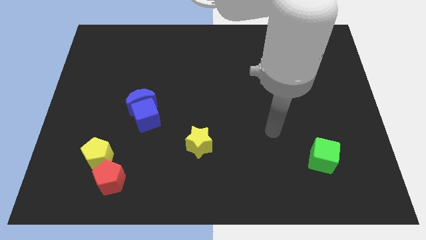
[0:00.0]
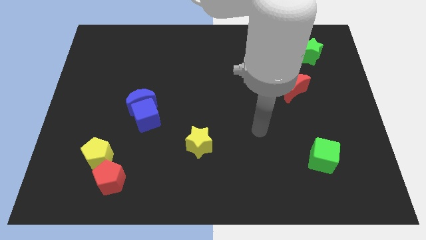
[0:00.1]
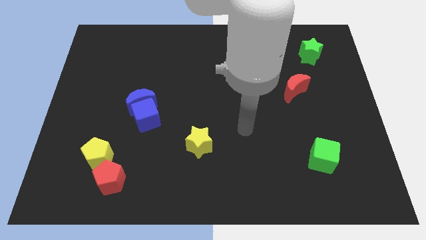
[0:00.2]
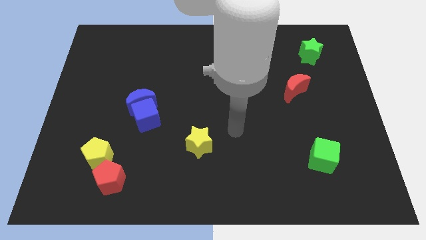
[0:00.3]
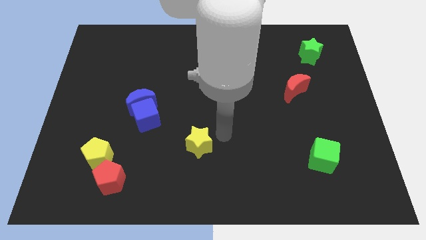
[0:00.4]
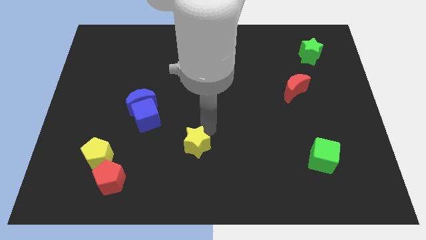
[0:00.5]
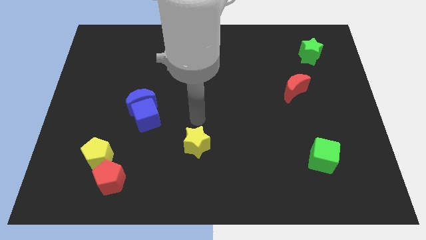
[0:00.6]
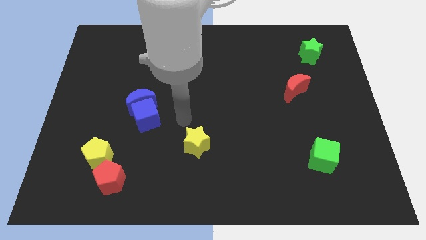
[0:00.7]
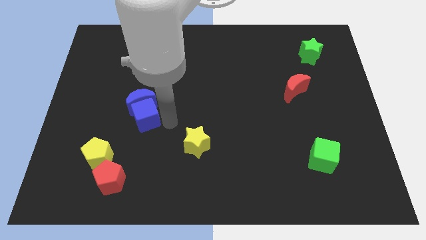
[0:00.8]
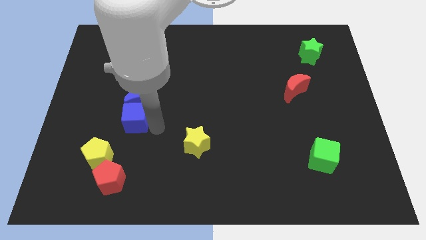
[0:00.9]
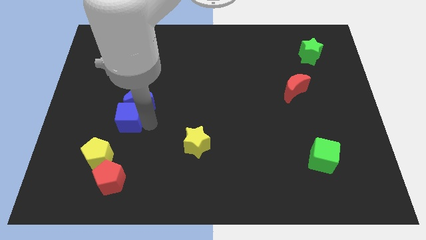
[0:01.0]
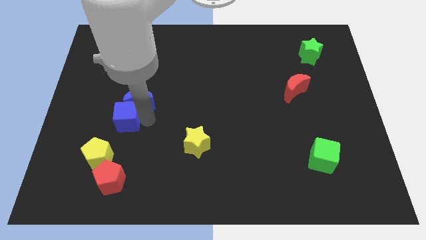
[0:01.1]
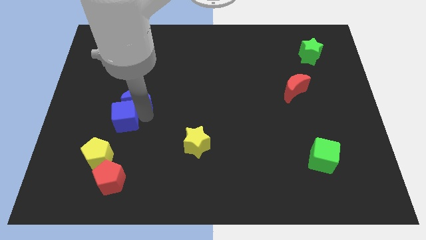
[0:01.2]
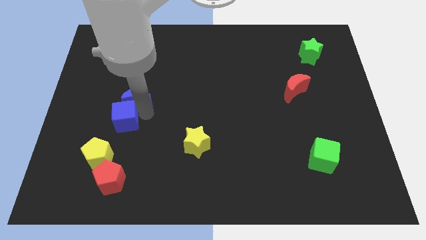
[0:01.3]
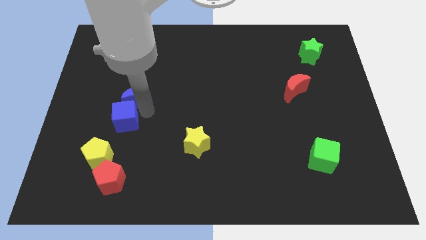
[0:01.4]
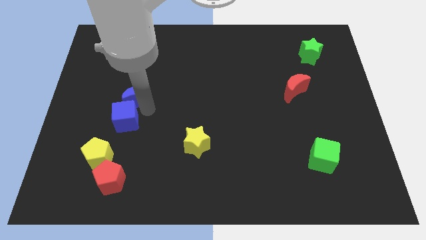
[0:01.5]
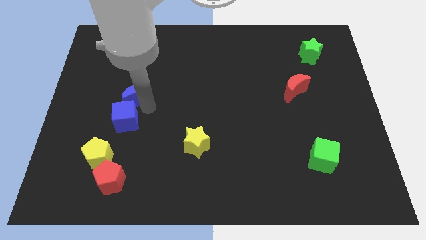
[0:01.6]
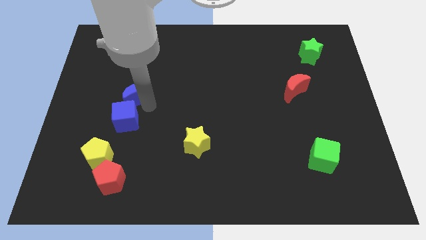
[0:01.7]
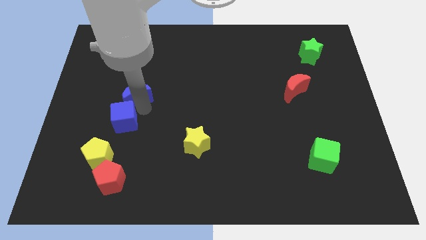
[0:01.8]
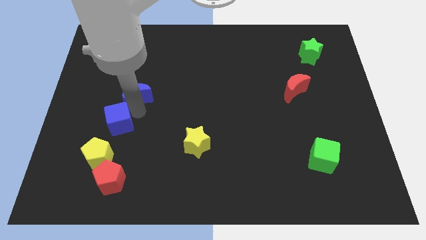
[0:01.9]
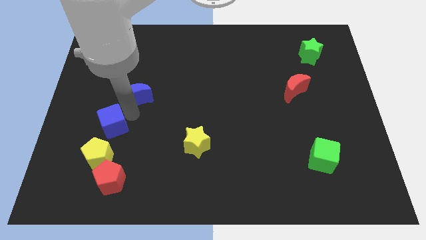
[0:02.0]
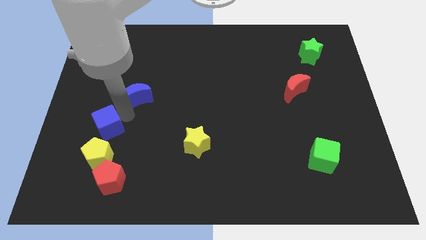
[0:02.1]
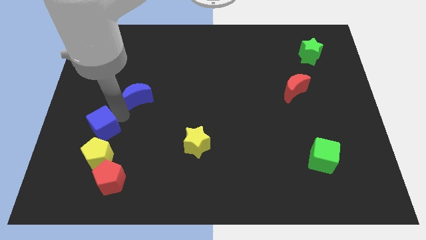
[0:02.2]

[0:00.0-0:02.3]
move the blue moon away from the blue cube

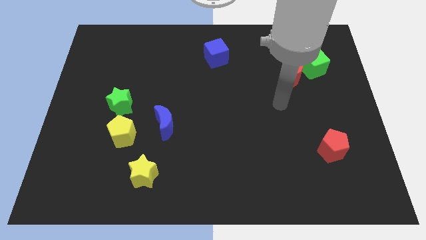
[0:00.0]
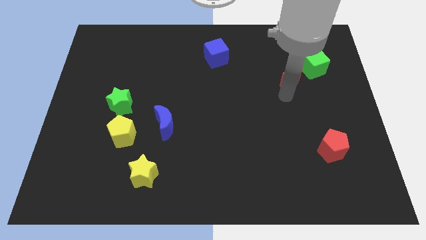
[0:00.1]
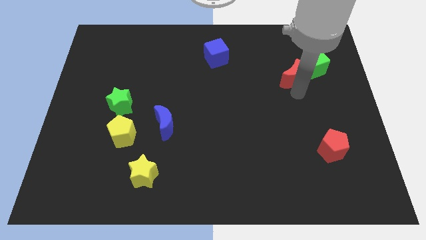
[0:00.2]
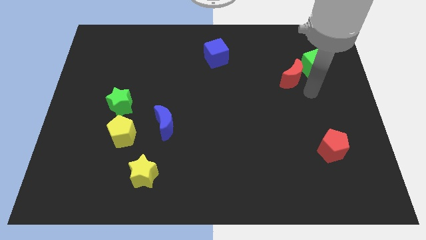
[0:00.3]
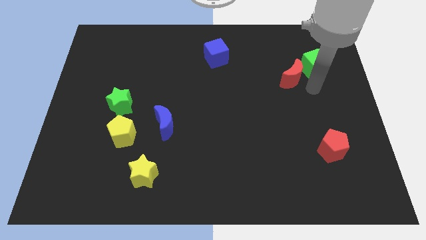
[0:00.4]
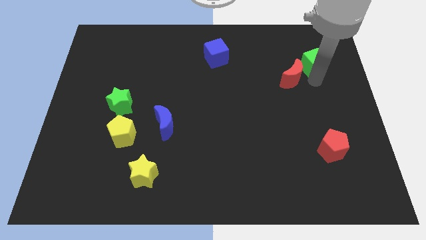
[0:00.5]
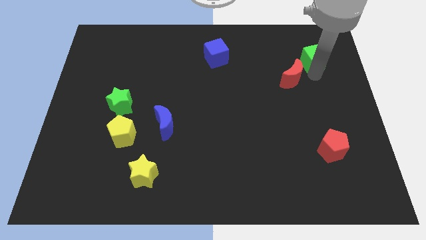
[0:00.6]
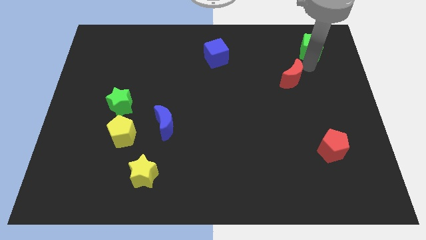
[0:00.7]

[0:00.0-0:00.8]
pull the red moon apart from the green cube

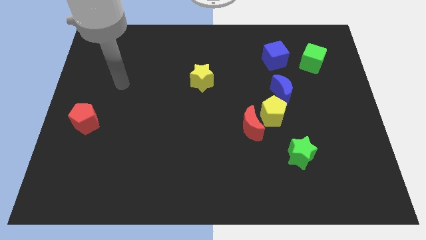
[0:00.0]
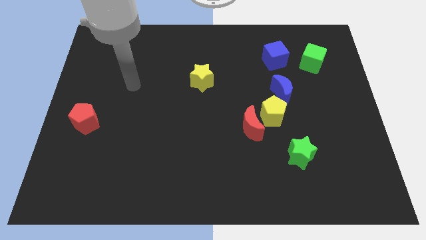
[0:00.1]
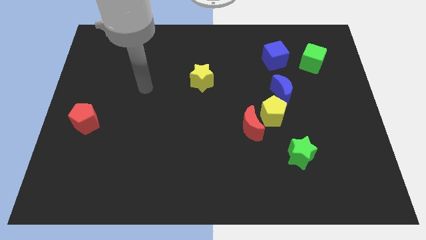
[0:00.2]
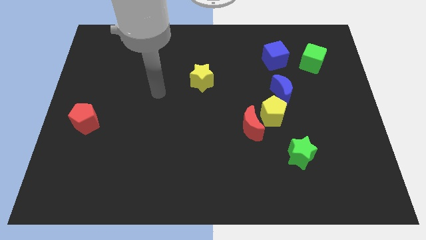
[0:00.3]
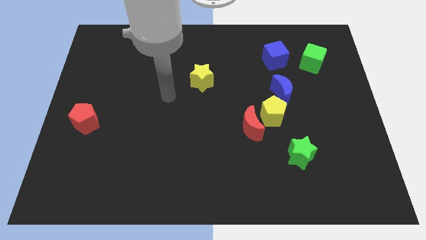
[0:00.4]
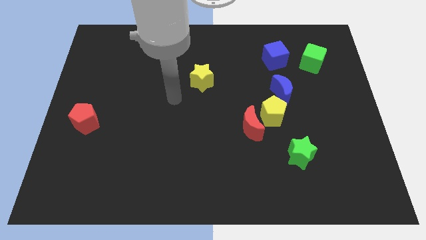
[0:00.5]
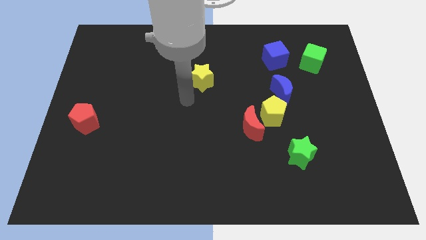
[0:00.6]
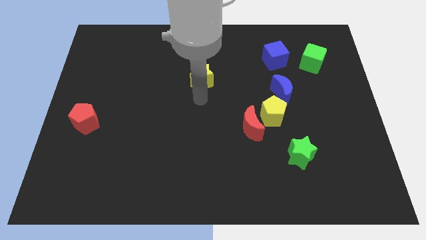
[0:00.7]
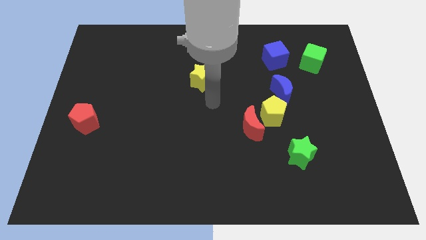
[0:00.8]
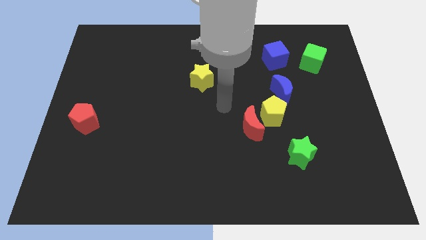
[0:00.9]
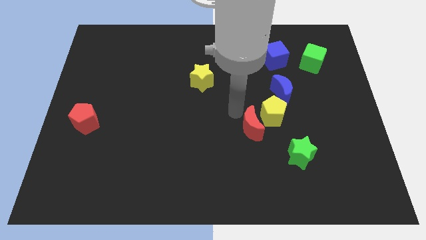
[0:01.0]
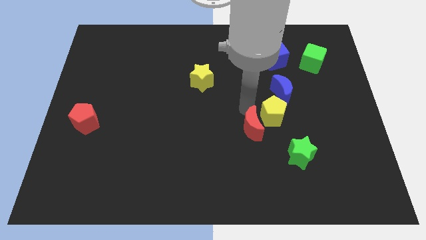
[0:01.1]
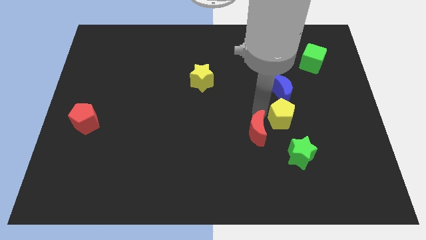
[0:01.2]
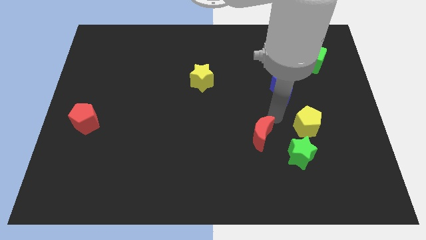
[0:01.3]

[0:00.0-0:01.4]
separate the red moon from the yellow pentagon

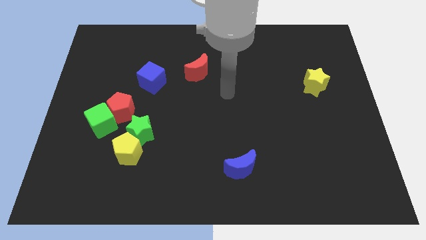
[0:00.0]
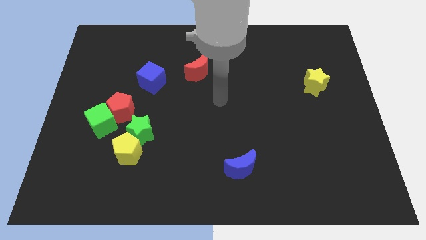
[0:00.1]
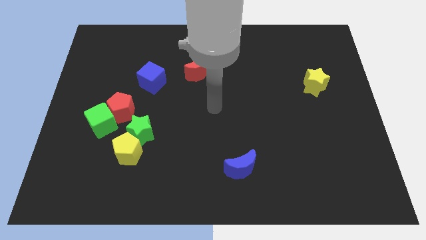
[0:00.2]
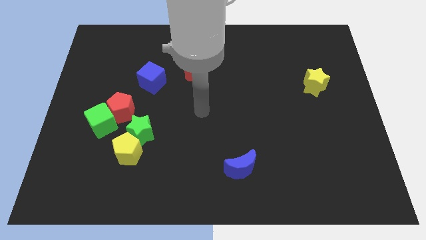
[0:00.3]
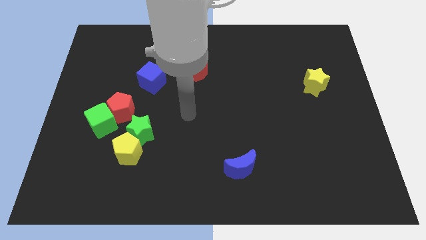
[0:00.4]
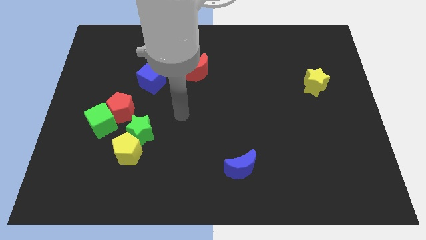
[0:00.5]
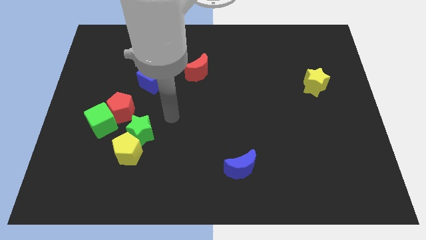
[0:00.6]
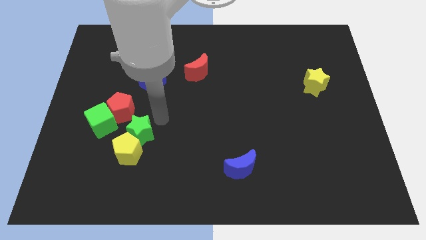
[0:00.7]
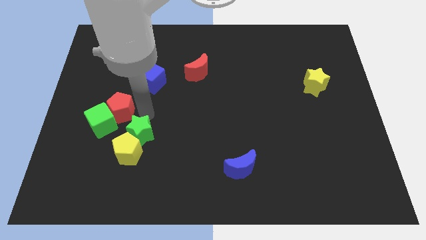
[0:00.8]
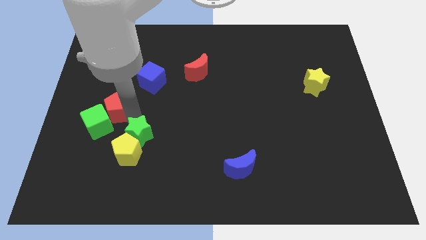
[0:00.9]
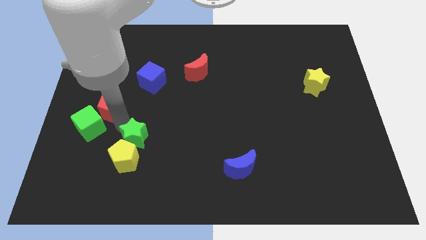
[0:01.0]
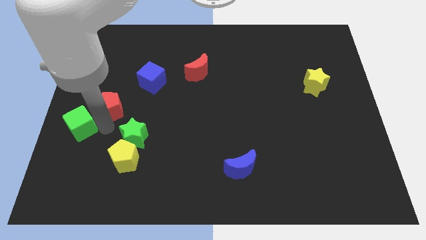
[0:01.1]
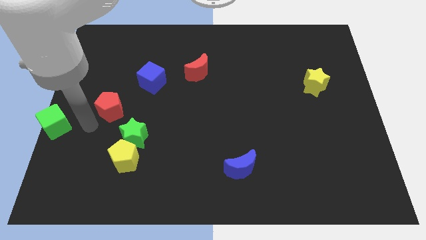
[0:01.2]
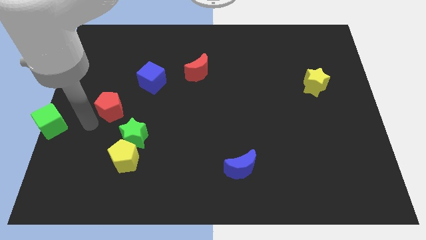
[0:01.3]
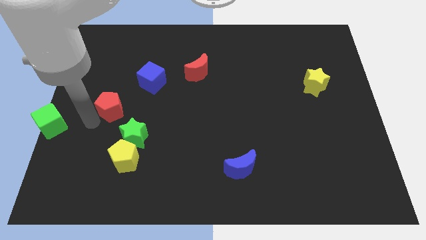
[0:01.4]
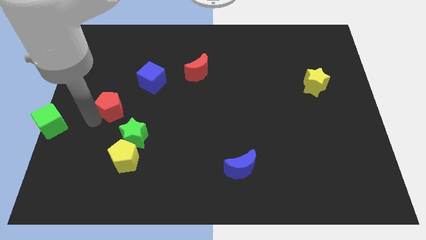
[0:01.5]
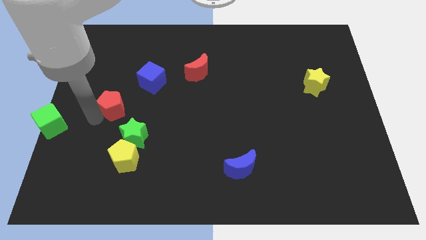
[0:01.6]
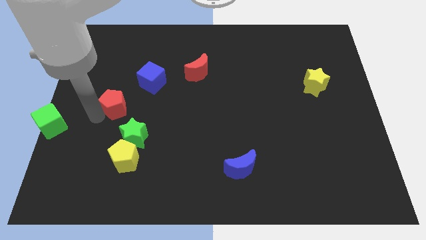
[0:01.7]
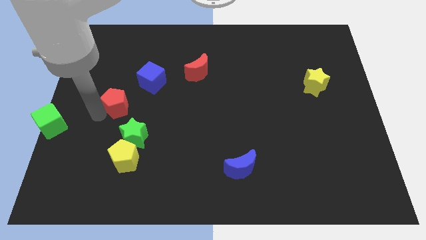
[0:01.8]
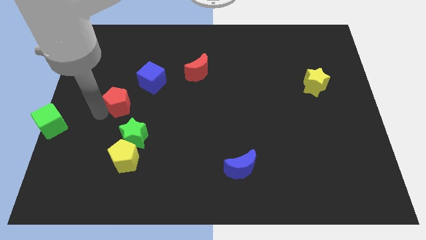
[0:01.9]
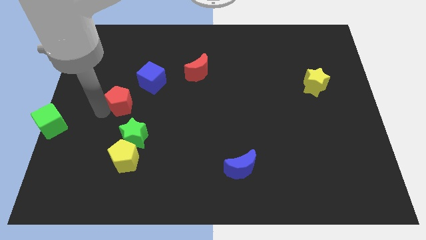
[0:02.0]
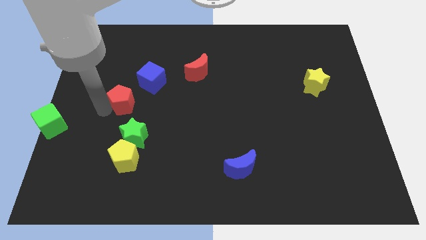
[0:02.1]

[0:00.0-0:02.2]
separate the red pentagon from the green cube and green star

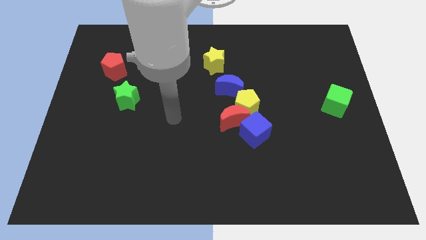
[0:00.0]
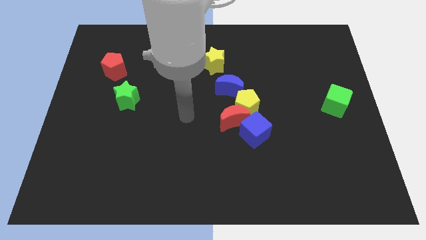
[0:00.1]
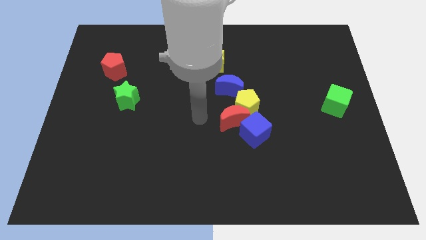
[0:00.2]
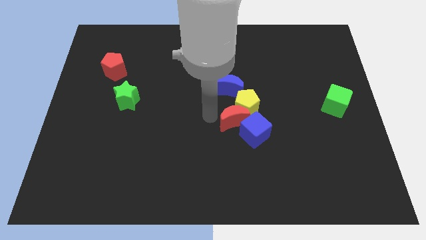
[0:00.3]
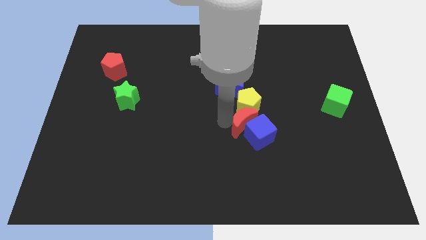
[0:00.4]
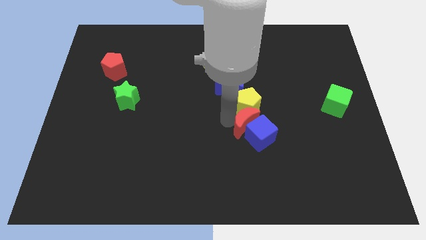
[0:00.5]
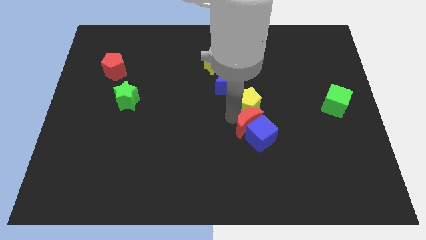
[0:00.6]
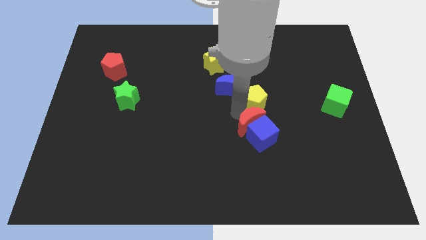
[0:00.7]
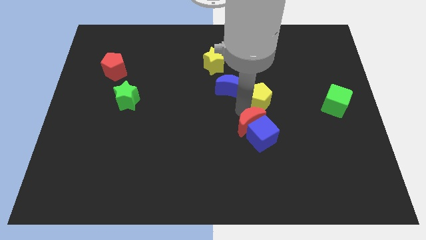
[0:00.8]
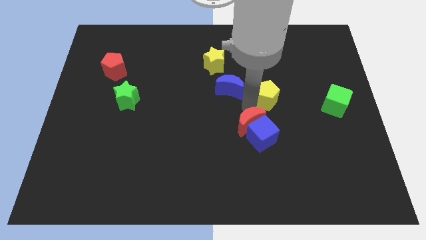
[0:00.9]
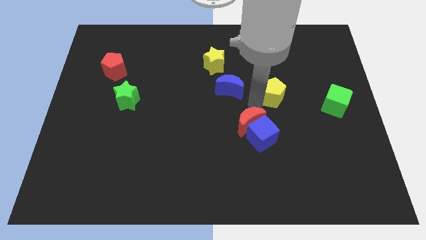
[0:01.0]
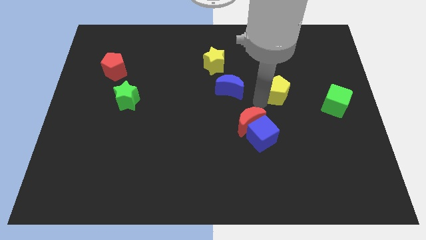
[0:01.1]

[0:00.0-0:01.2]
separate the yellow pentagon from the group

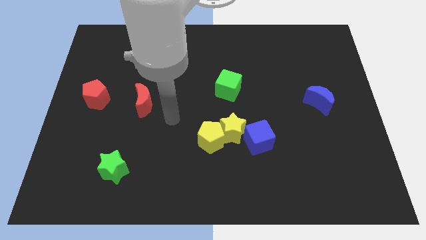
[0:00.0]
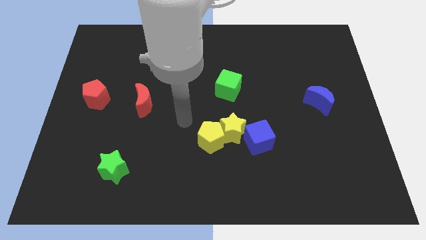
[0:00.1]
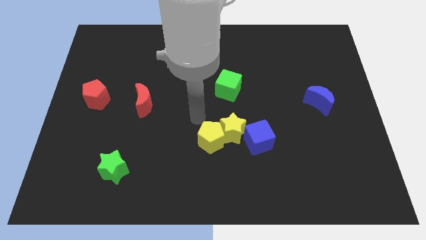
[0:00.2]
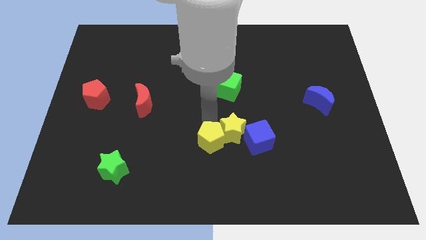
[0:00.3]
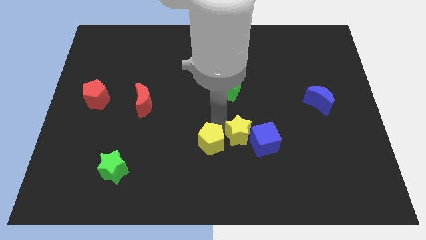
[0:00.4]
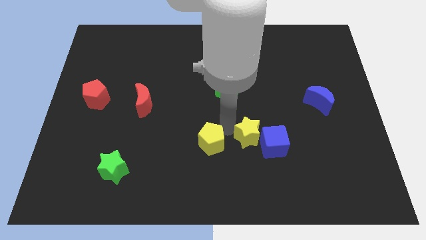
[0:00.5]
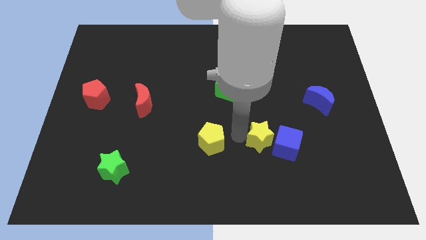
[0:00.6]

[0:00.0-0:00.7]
pull the yellow pentagon apart from the yellow star

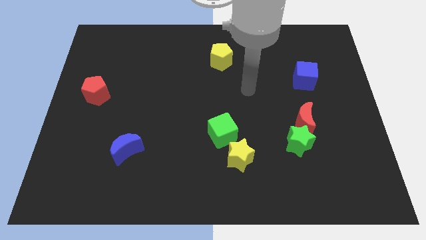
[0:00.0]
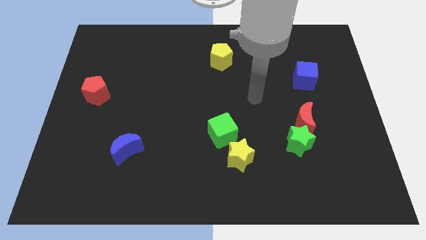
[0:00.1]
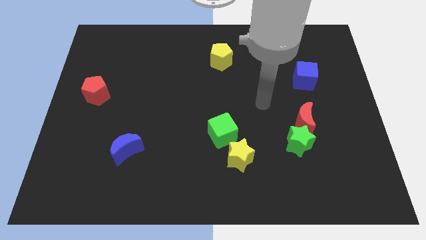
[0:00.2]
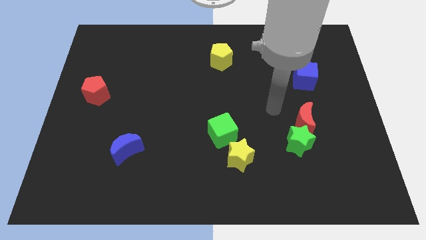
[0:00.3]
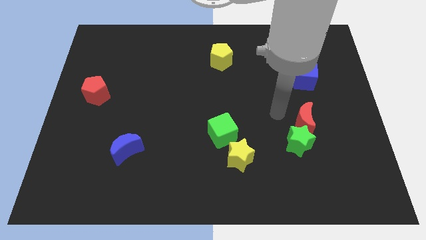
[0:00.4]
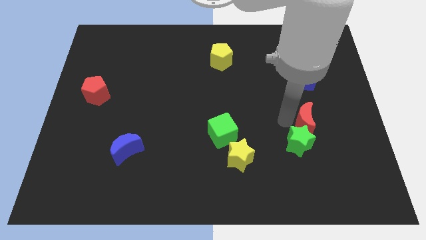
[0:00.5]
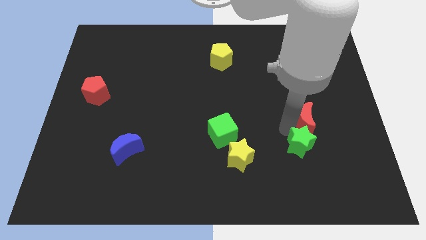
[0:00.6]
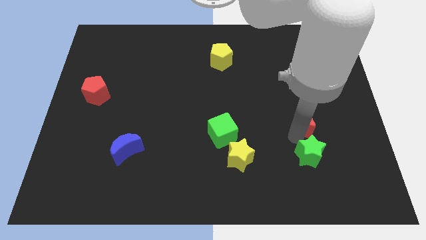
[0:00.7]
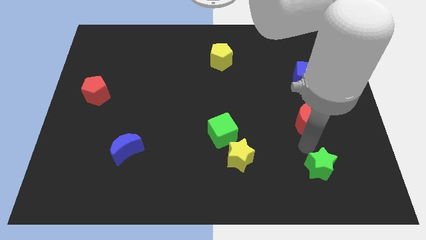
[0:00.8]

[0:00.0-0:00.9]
move the red moon away from the green star

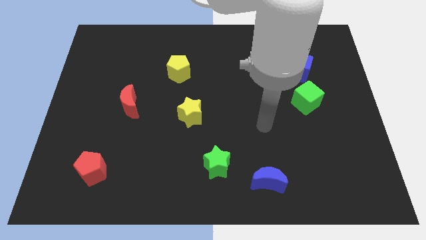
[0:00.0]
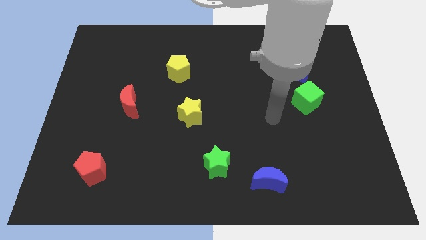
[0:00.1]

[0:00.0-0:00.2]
move the blue cube away from the green cube
